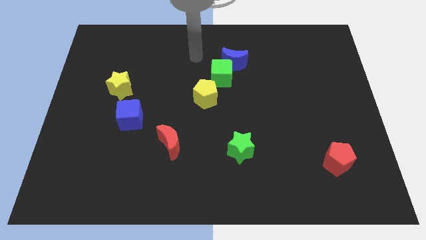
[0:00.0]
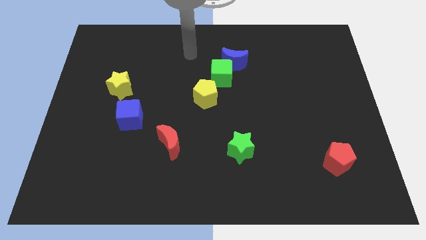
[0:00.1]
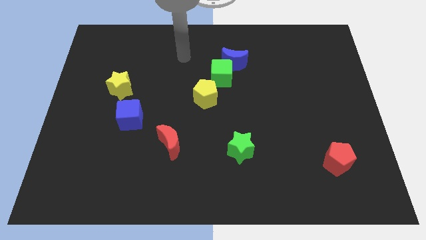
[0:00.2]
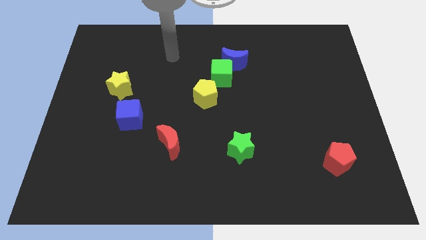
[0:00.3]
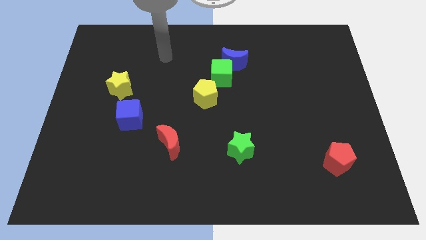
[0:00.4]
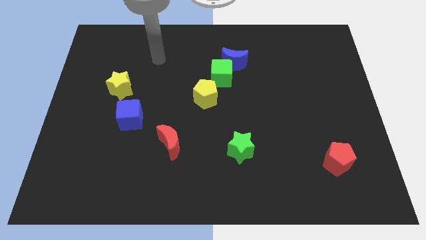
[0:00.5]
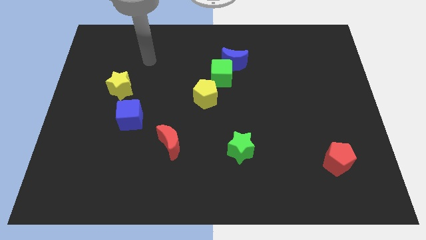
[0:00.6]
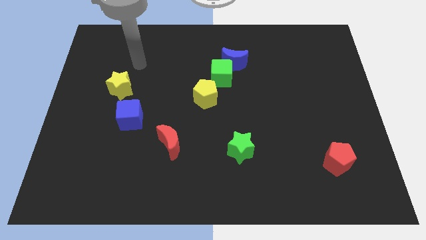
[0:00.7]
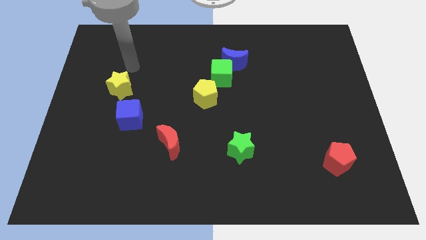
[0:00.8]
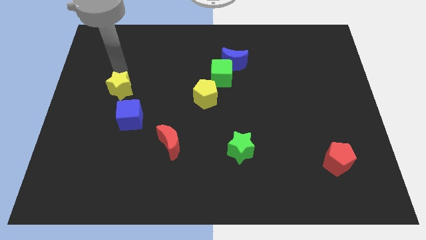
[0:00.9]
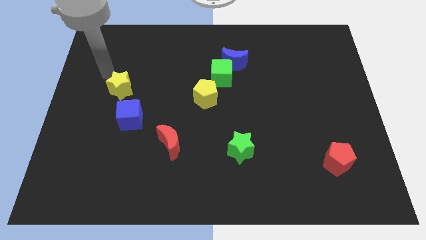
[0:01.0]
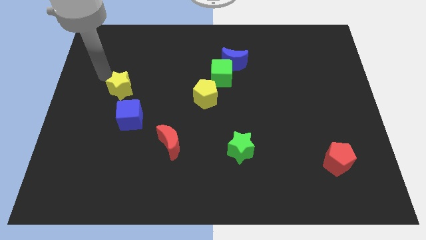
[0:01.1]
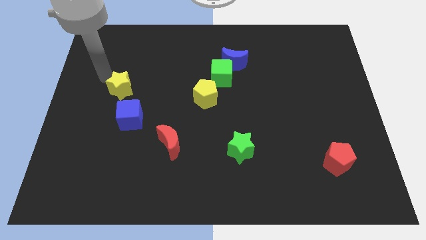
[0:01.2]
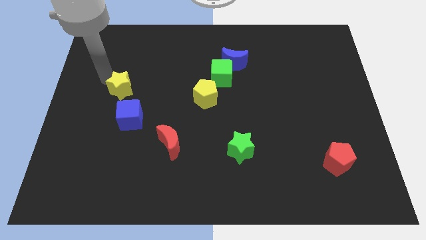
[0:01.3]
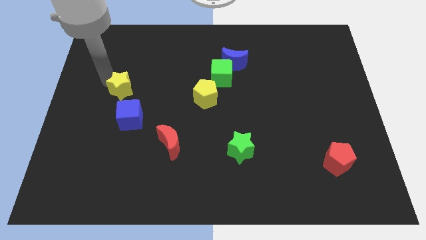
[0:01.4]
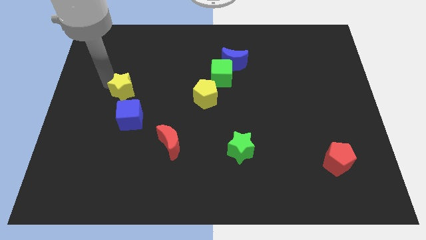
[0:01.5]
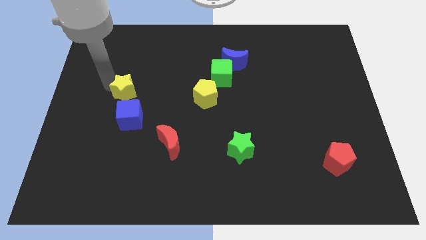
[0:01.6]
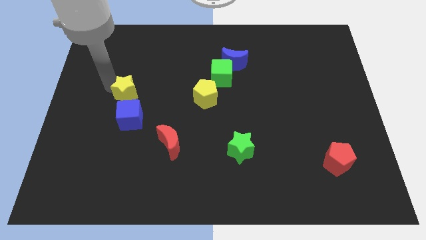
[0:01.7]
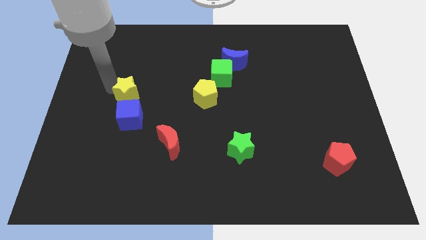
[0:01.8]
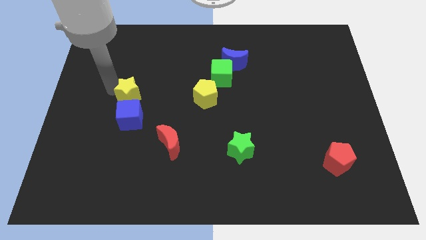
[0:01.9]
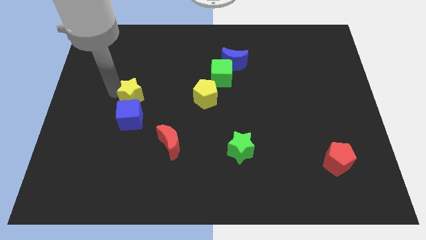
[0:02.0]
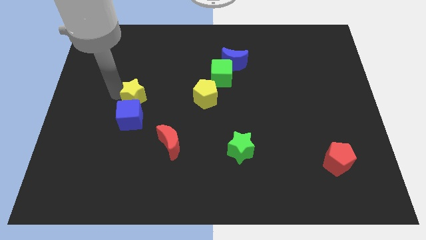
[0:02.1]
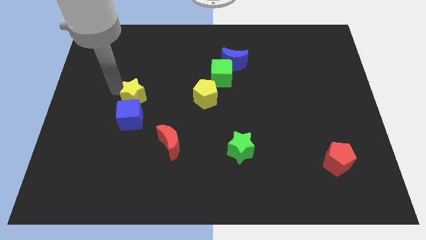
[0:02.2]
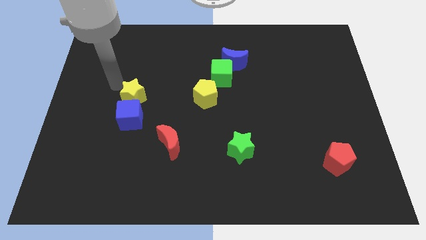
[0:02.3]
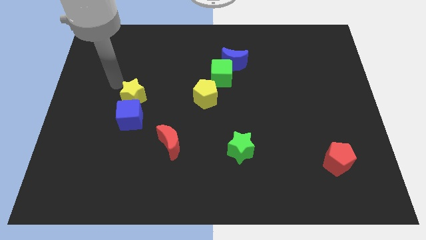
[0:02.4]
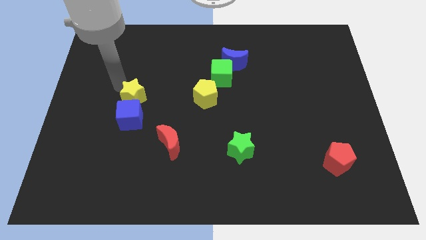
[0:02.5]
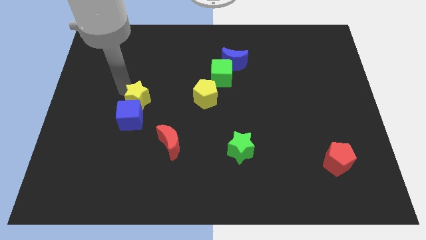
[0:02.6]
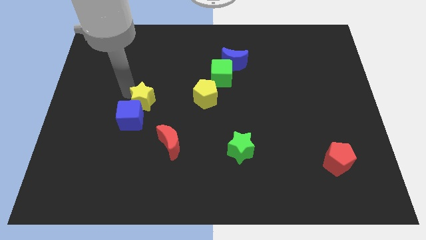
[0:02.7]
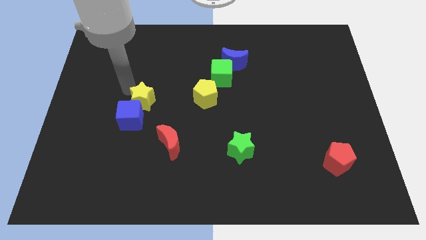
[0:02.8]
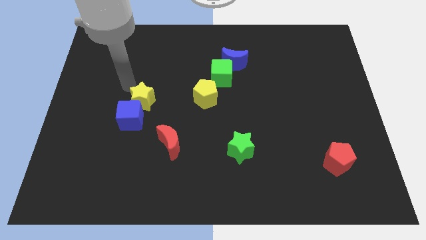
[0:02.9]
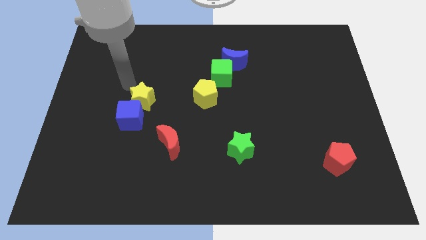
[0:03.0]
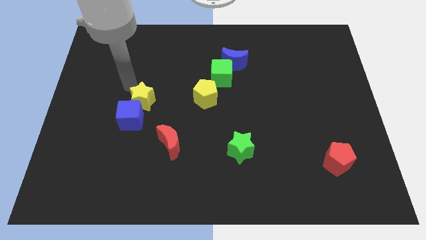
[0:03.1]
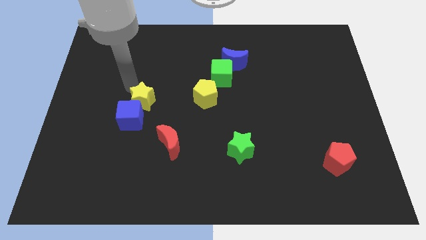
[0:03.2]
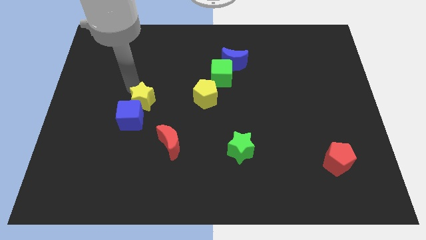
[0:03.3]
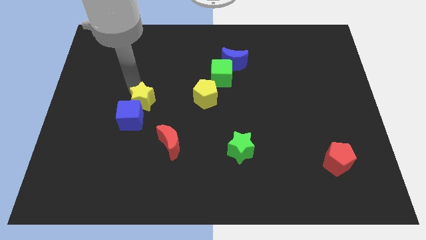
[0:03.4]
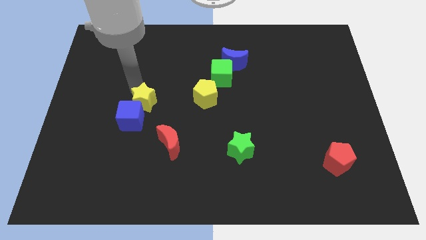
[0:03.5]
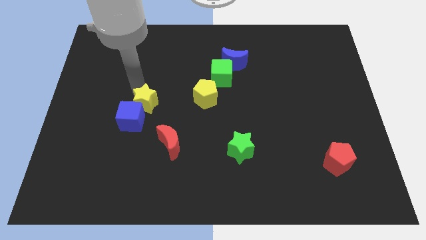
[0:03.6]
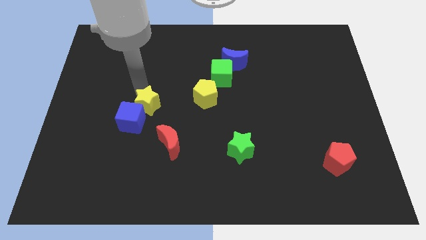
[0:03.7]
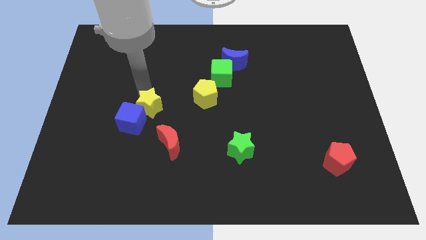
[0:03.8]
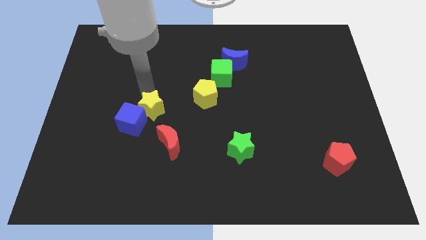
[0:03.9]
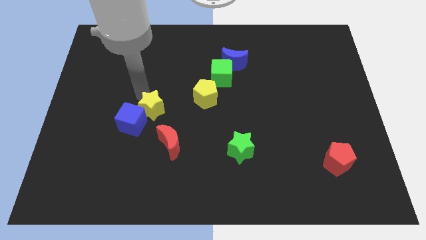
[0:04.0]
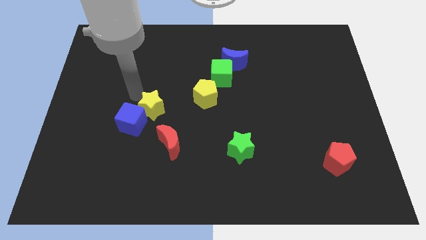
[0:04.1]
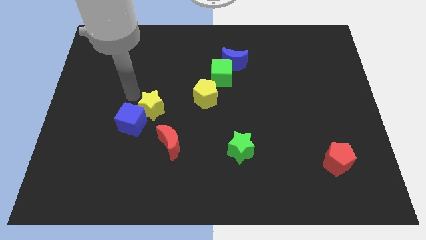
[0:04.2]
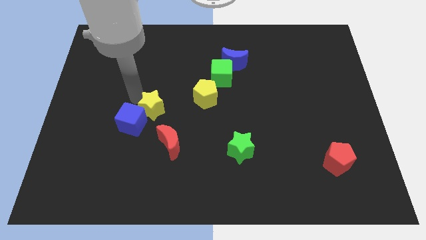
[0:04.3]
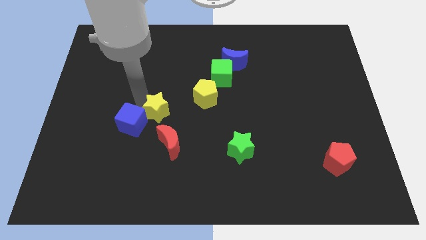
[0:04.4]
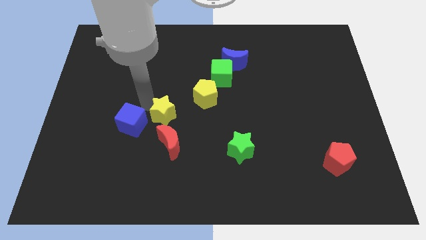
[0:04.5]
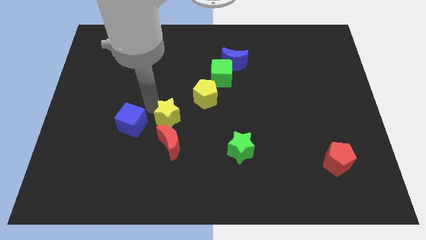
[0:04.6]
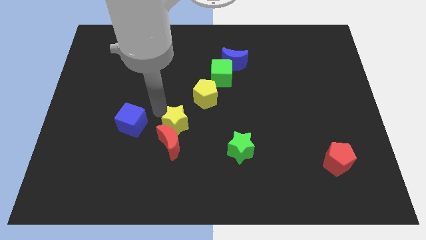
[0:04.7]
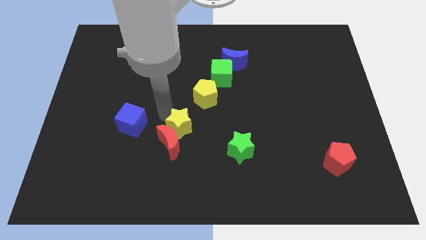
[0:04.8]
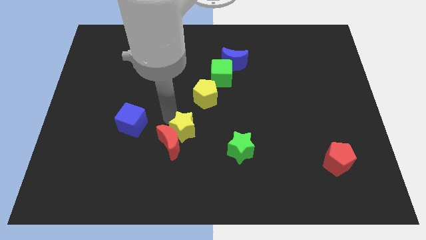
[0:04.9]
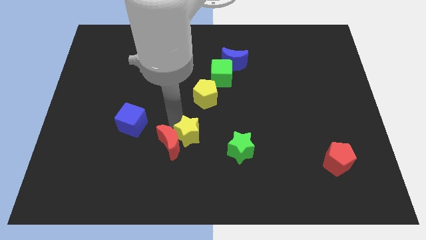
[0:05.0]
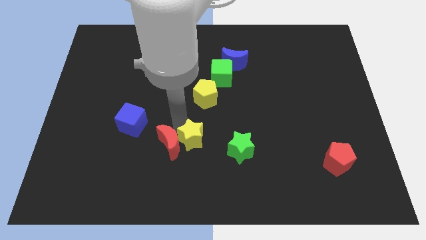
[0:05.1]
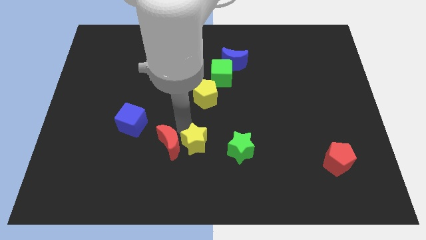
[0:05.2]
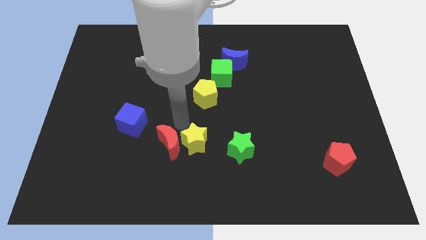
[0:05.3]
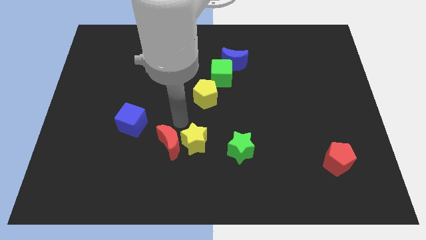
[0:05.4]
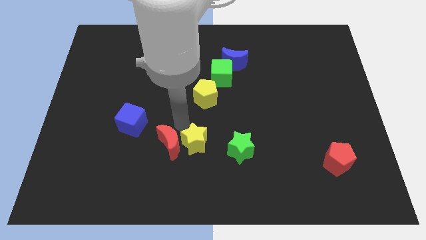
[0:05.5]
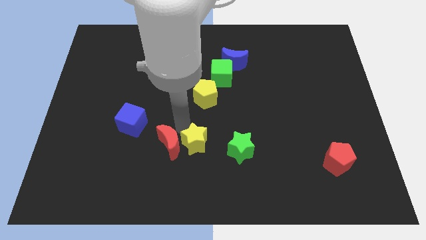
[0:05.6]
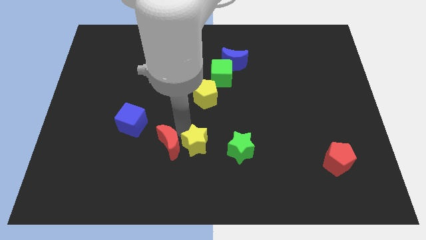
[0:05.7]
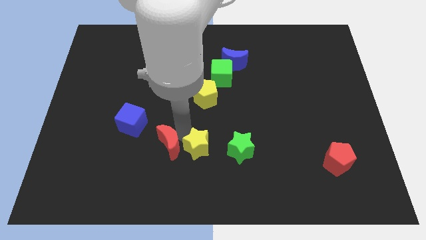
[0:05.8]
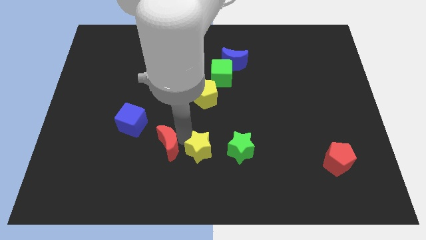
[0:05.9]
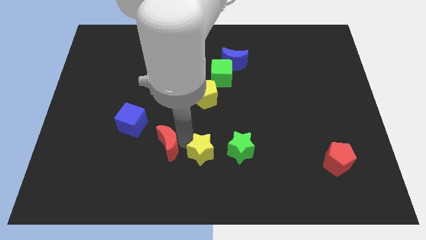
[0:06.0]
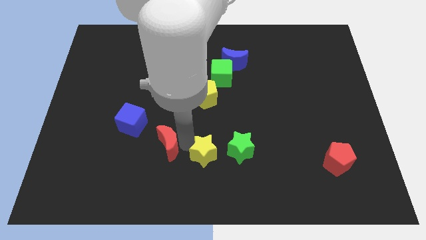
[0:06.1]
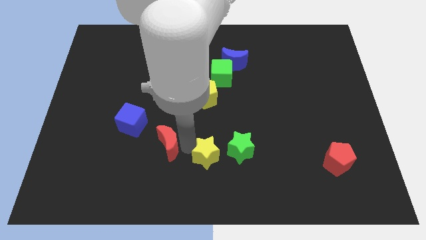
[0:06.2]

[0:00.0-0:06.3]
slide the yellow star diagonally down and to the left of the green star
